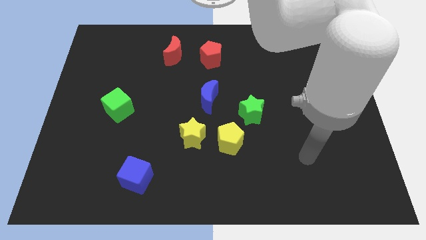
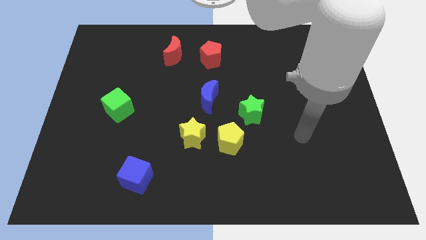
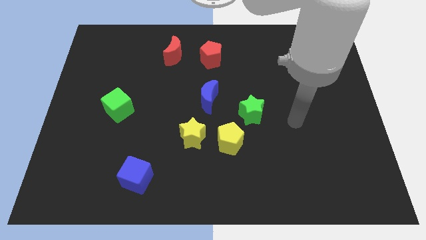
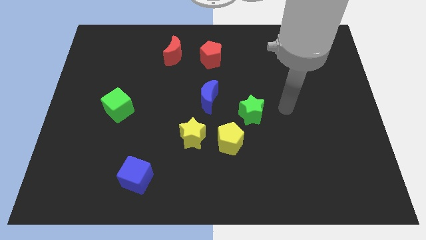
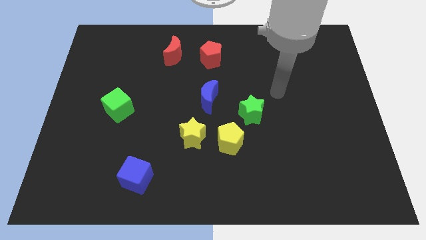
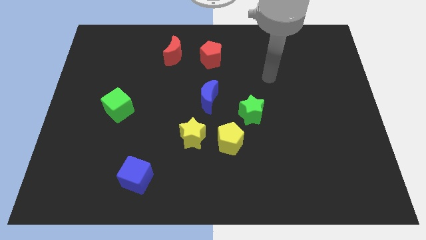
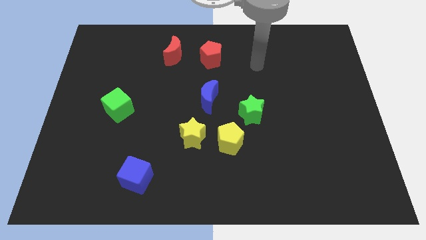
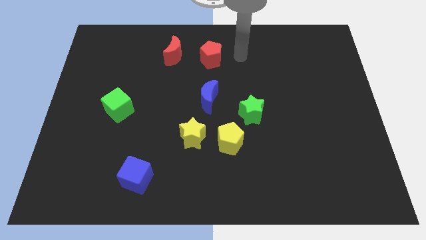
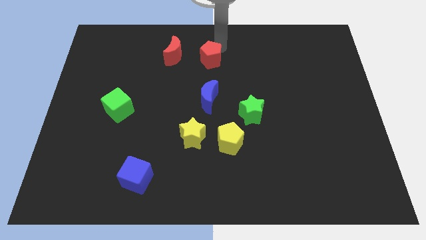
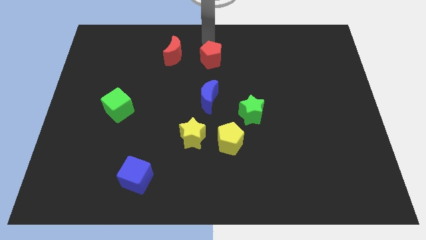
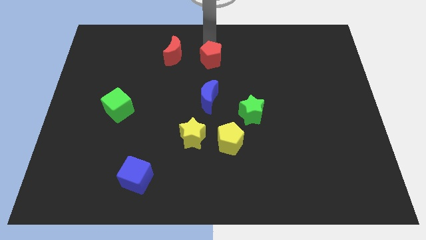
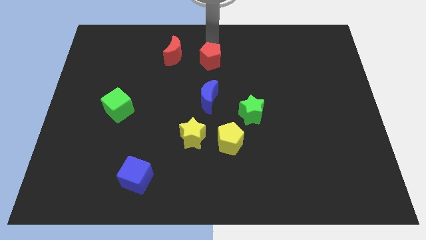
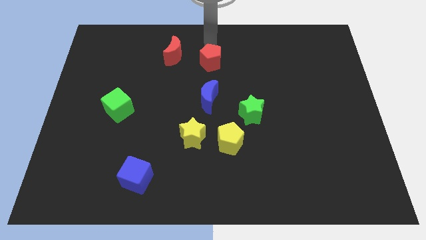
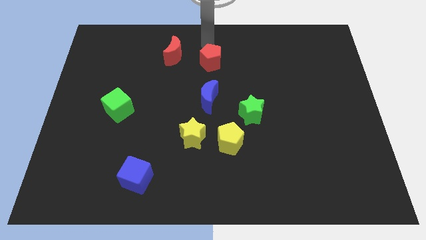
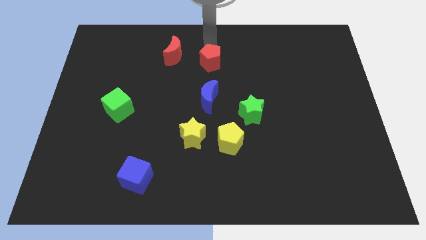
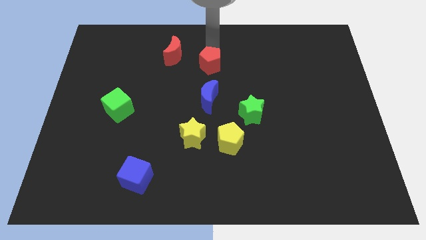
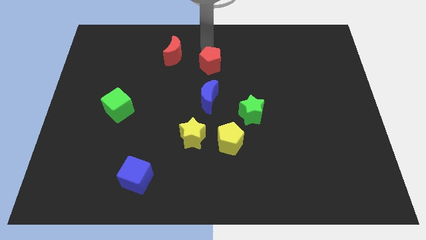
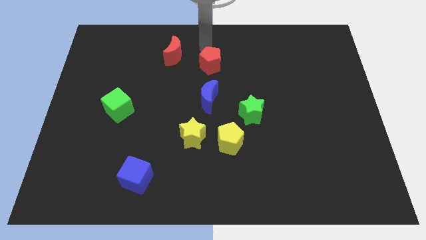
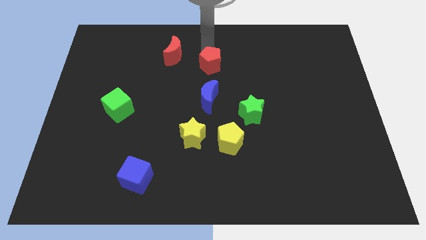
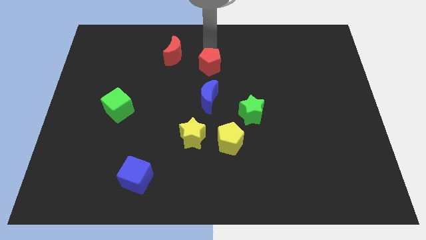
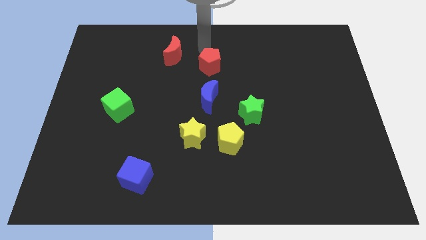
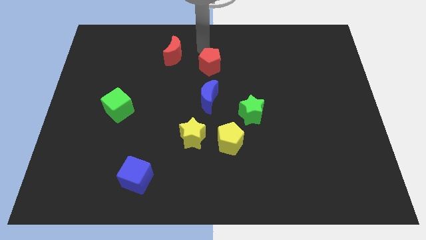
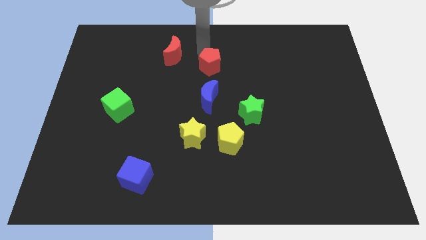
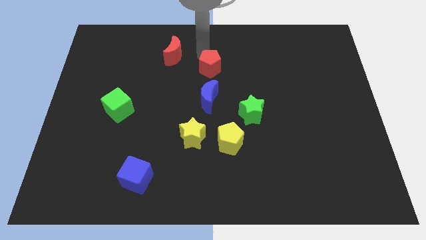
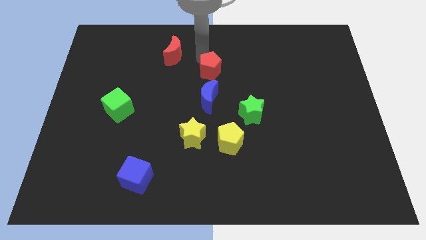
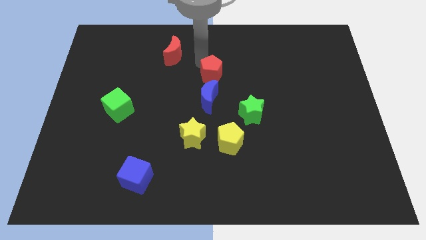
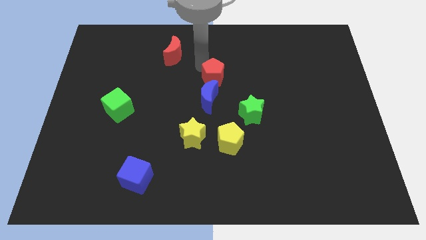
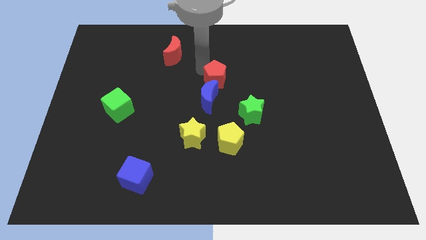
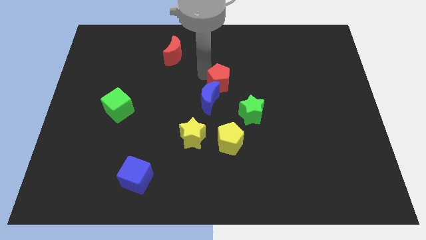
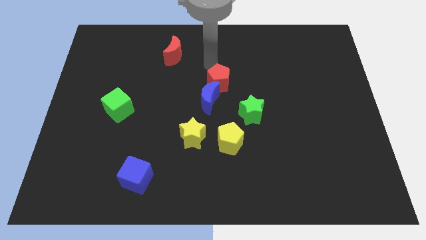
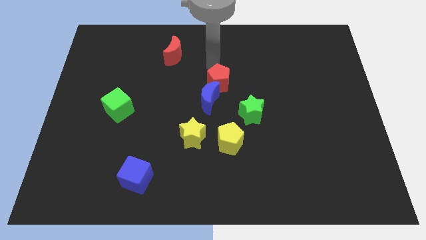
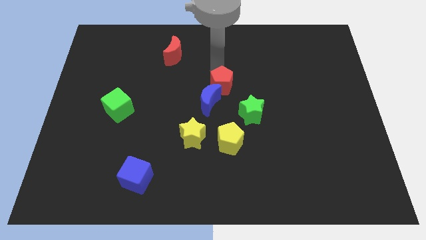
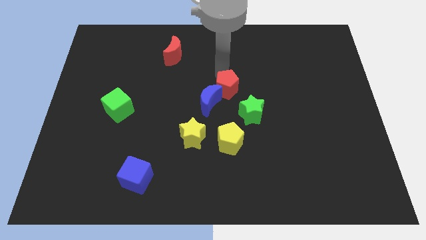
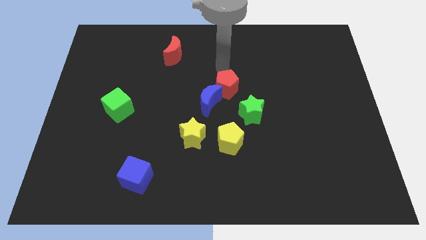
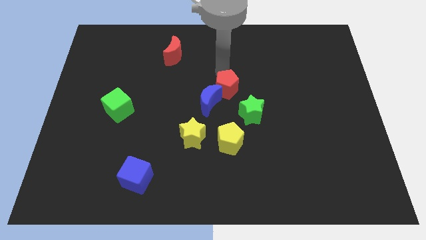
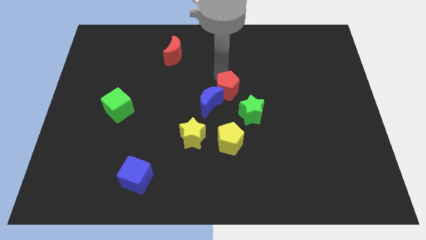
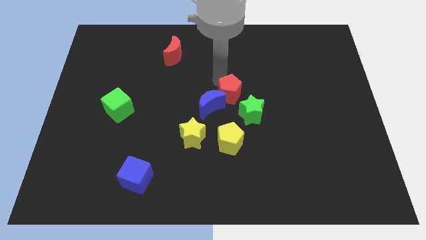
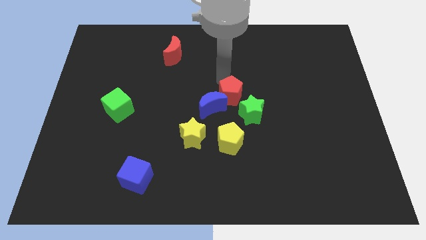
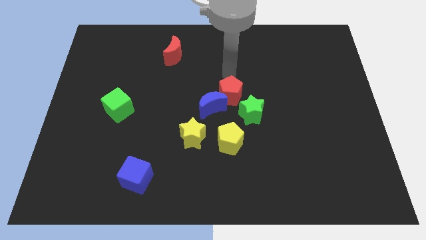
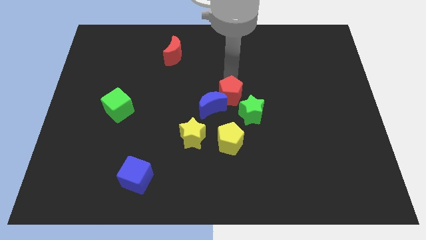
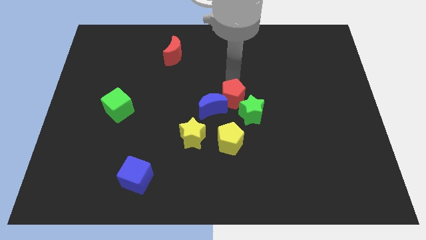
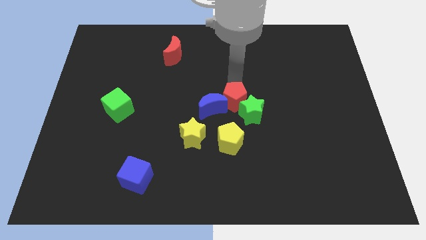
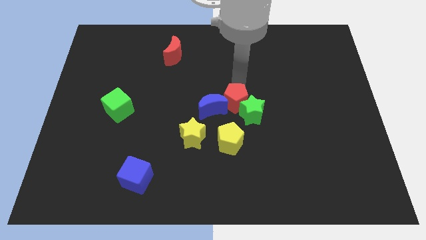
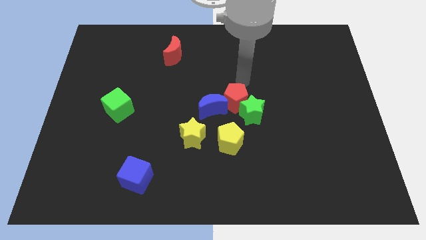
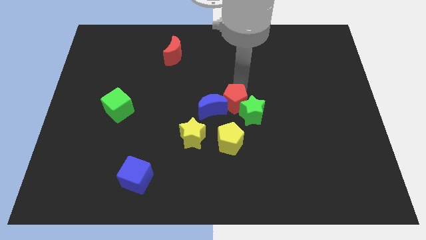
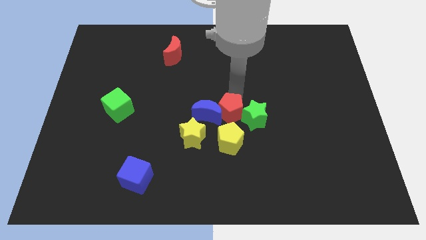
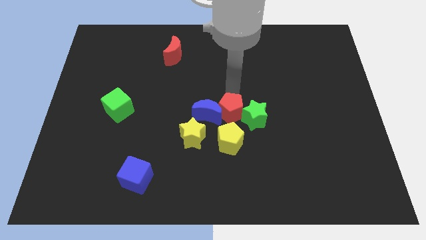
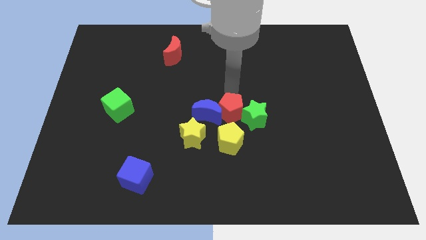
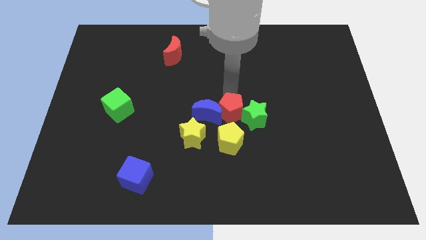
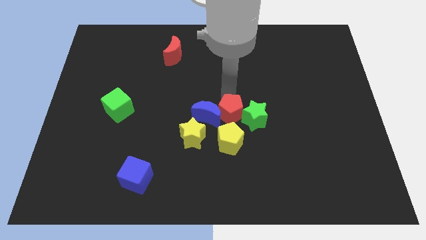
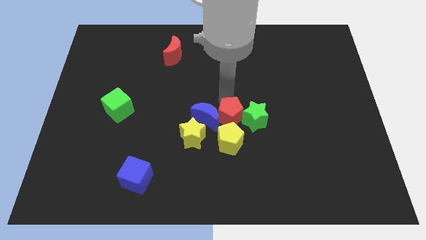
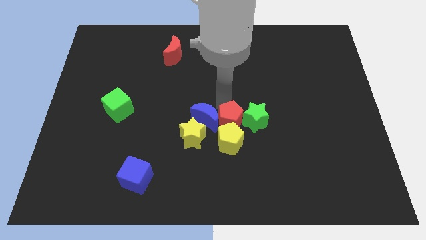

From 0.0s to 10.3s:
move the red pentagon close to the yellow pentagon

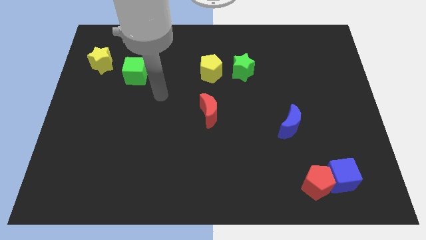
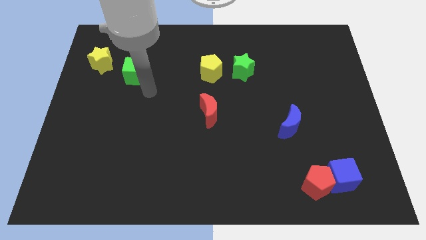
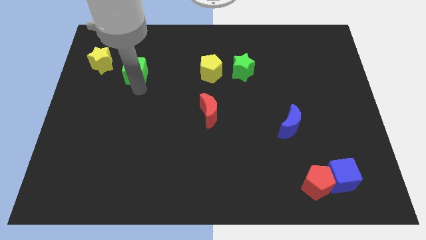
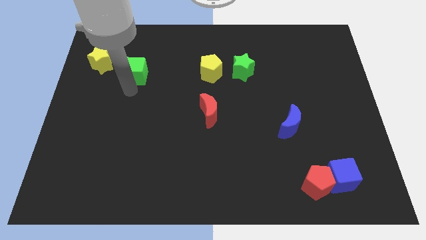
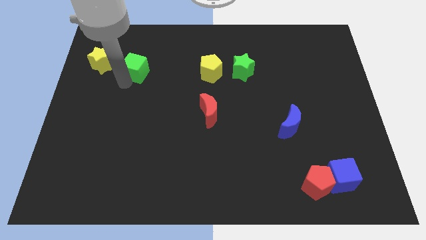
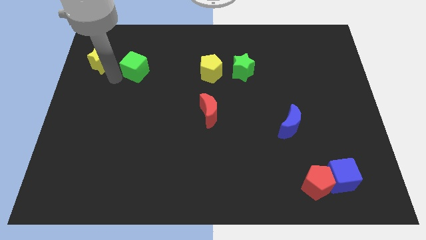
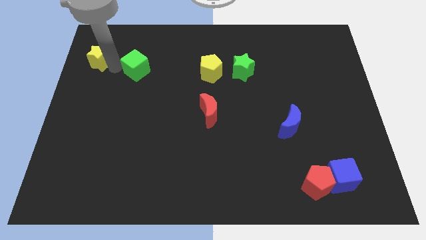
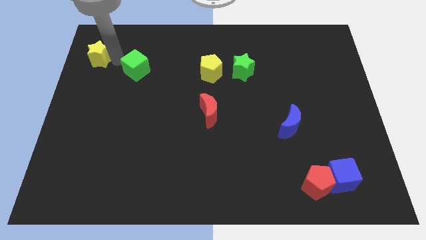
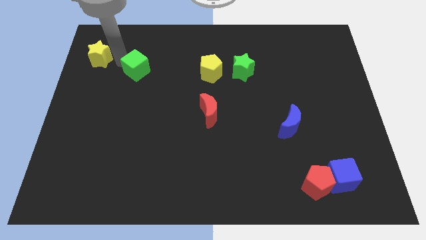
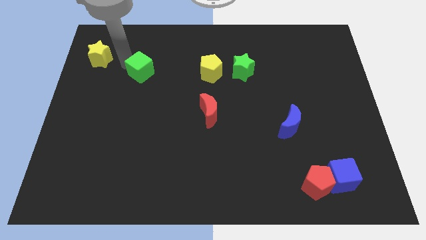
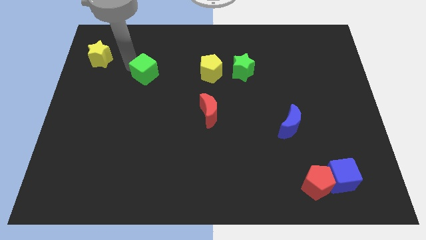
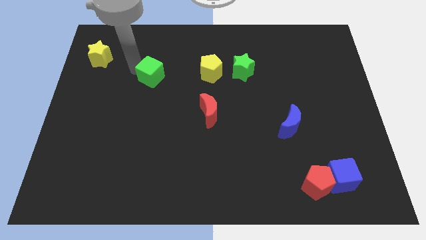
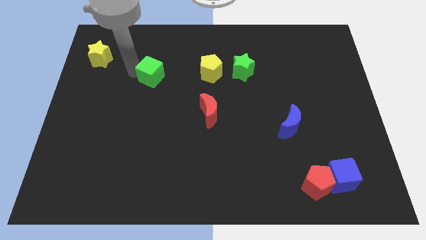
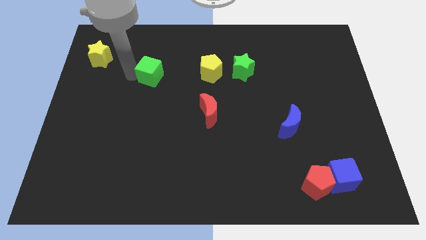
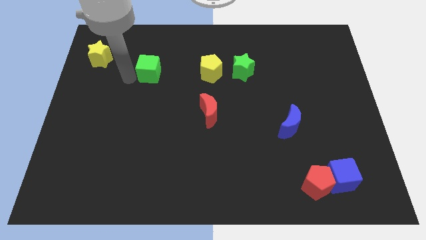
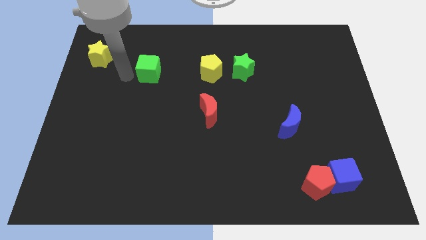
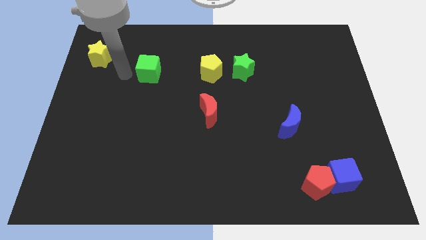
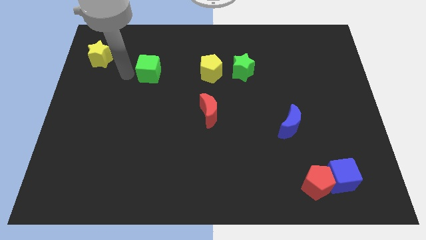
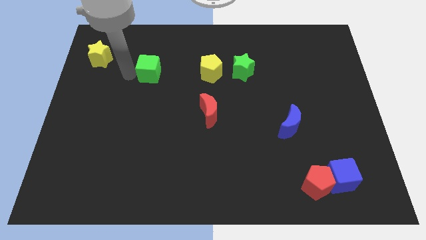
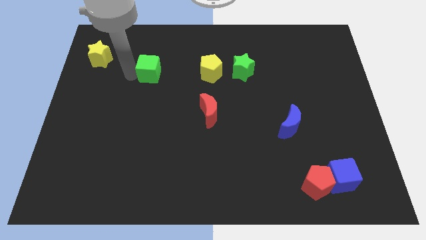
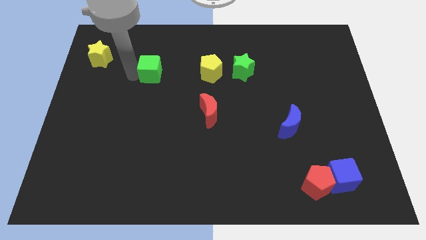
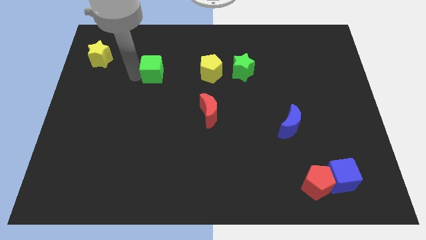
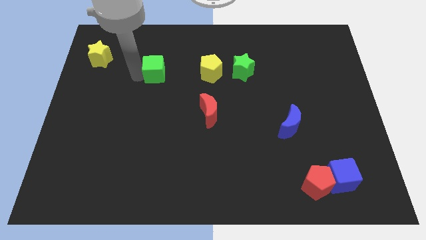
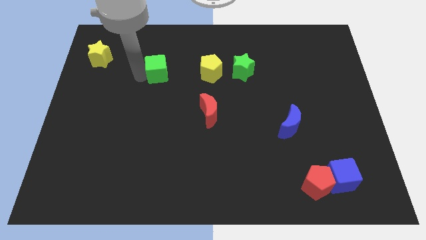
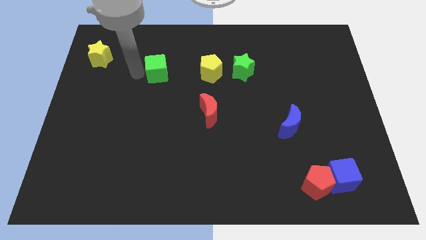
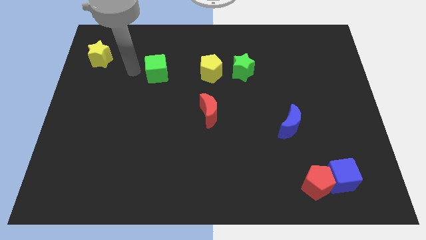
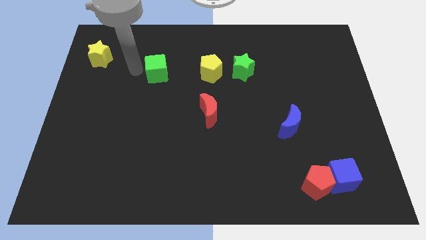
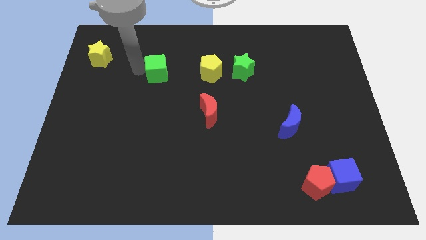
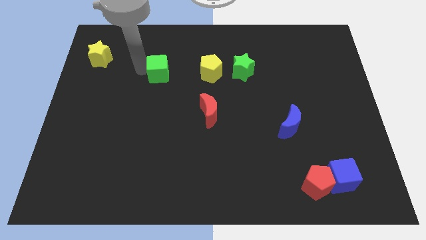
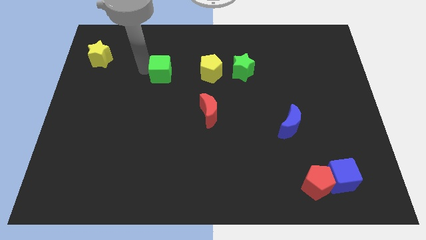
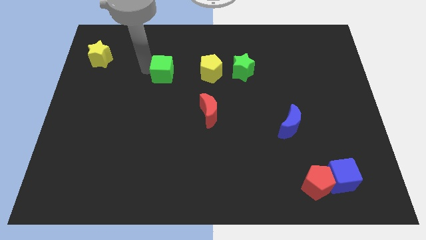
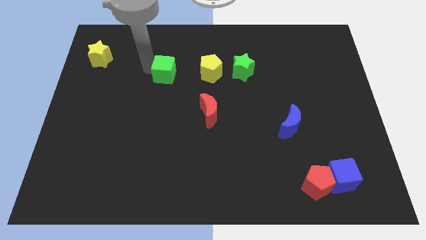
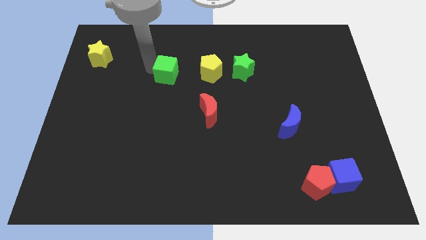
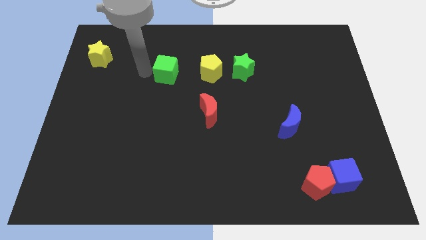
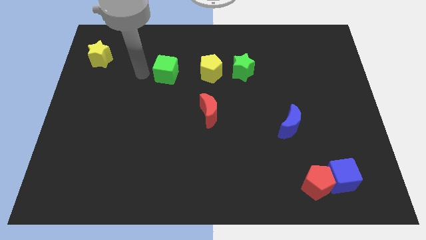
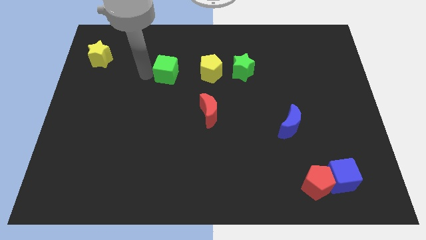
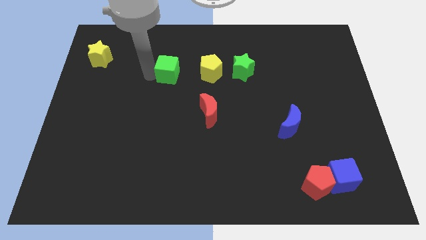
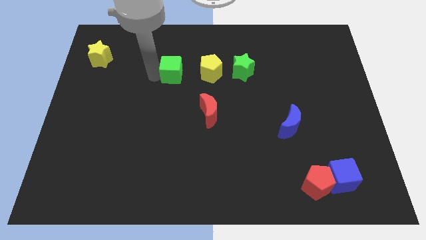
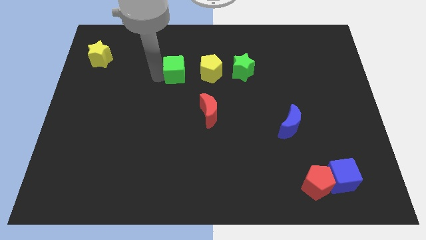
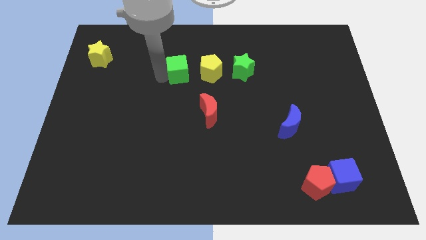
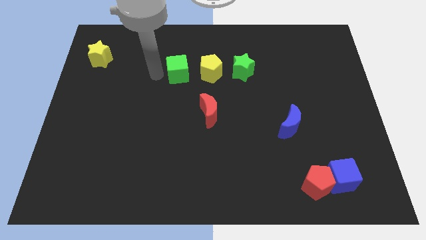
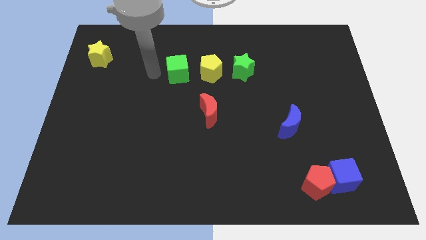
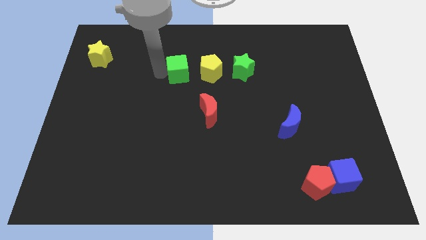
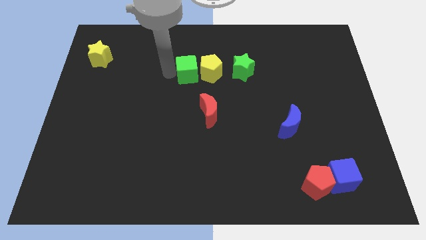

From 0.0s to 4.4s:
push the green cube next to the yellow pentagon
